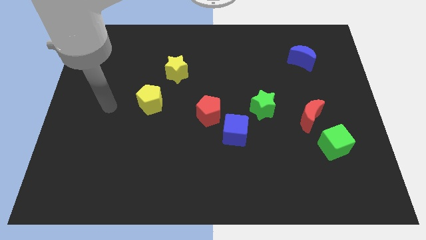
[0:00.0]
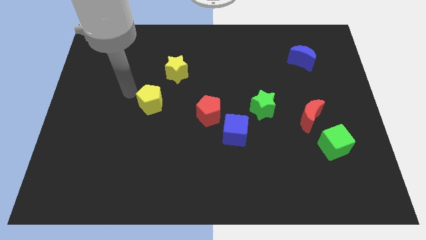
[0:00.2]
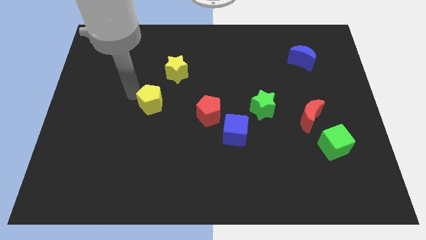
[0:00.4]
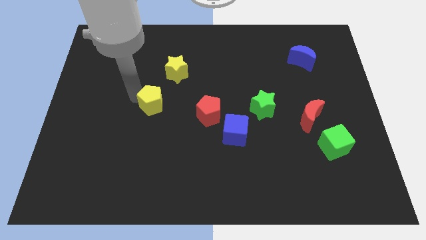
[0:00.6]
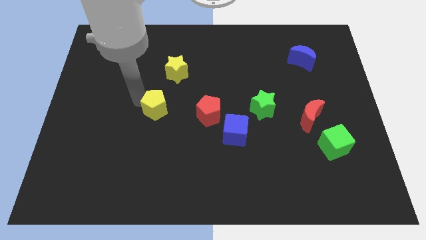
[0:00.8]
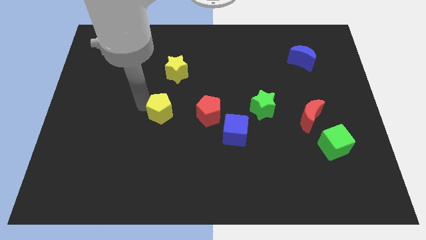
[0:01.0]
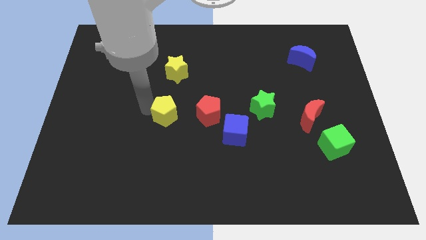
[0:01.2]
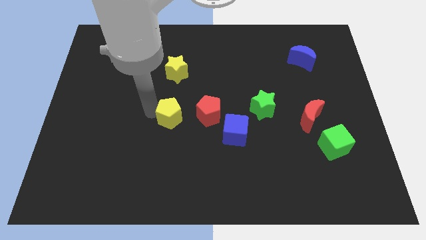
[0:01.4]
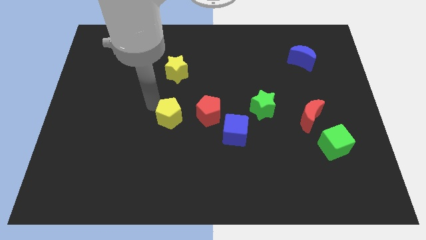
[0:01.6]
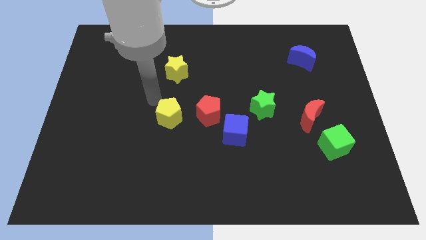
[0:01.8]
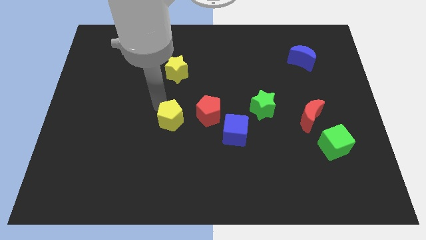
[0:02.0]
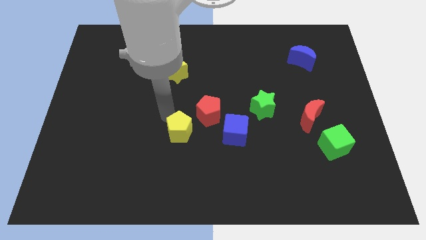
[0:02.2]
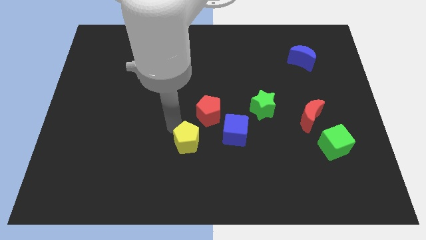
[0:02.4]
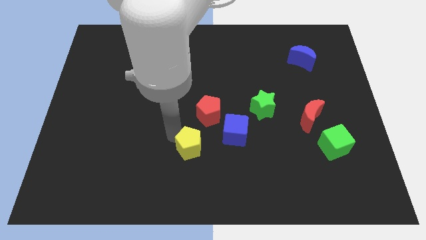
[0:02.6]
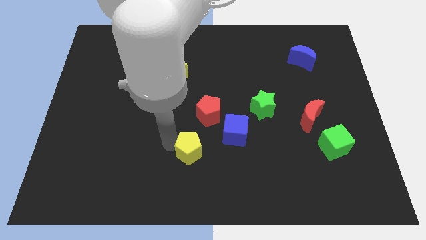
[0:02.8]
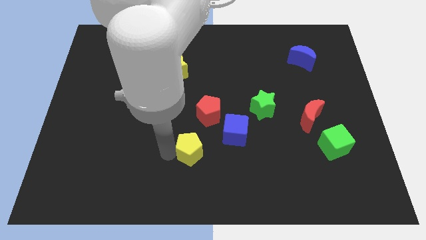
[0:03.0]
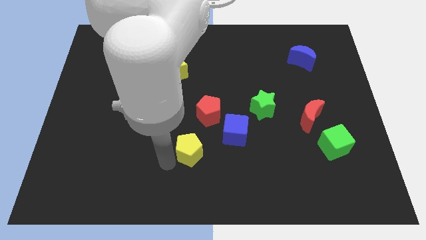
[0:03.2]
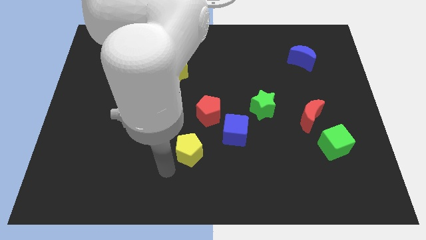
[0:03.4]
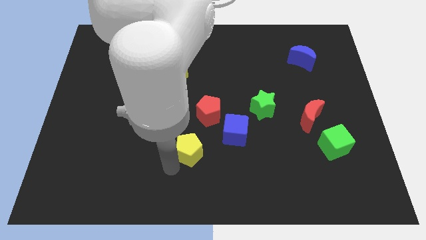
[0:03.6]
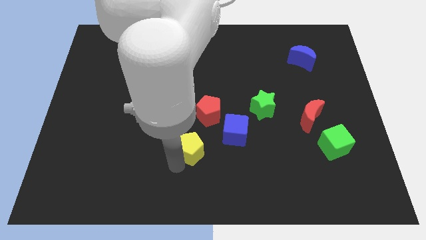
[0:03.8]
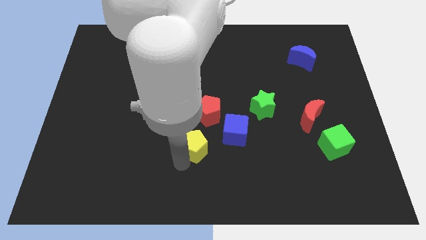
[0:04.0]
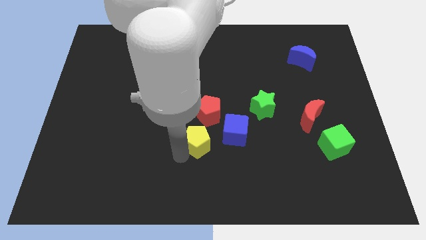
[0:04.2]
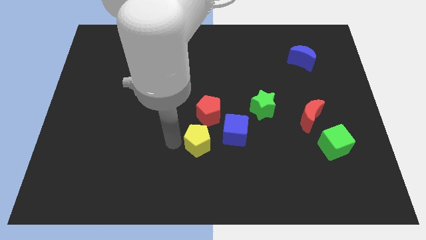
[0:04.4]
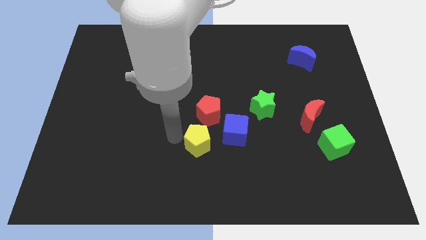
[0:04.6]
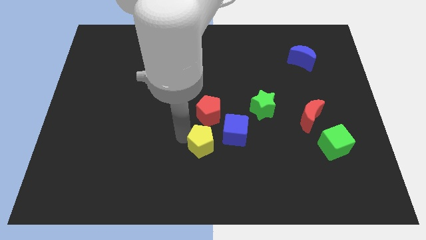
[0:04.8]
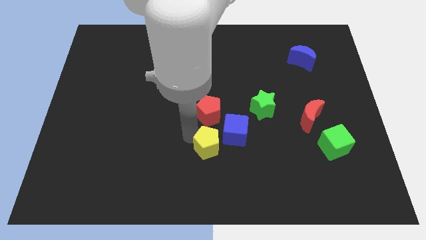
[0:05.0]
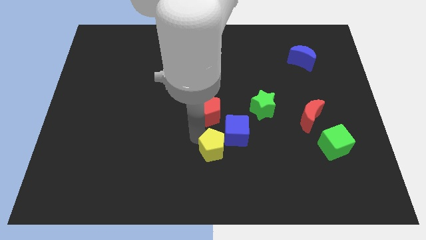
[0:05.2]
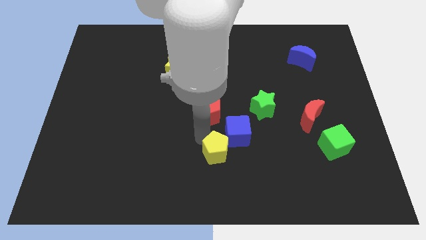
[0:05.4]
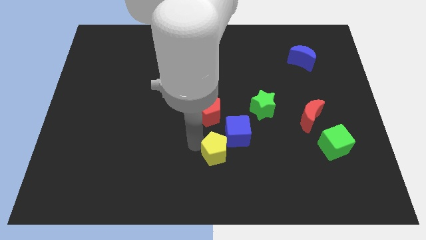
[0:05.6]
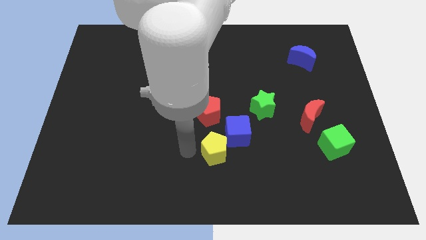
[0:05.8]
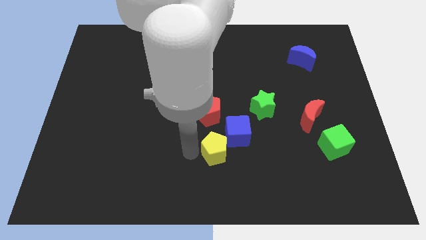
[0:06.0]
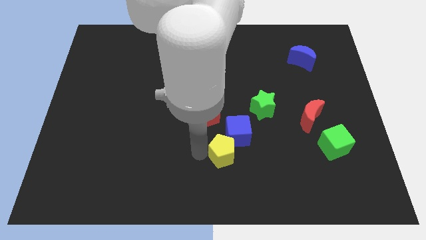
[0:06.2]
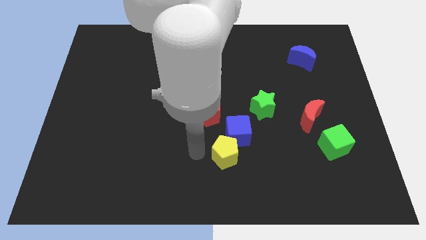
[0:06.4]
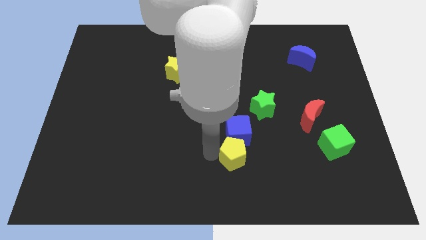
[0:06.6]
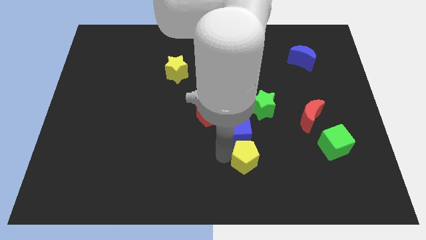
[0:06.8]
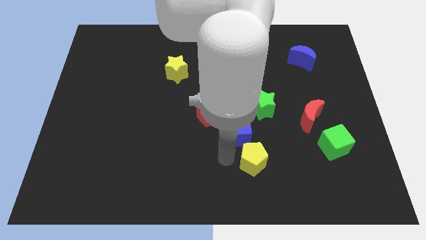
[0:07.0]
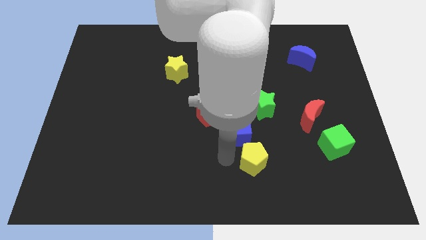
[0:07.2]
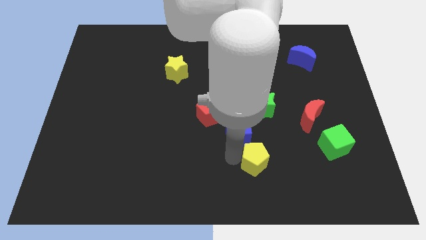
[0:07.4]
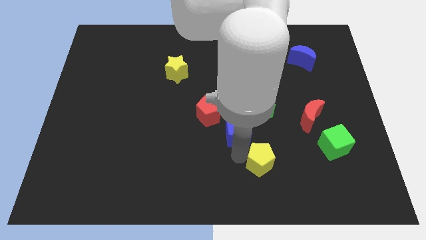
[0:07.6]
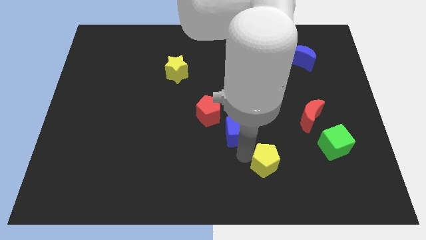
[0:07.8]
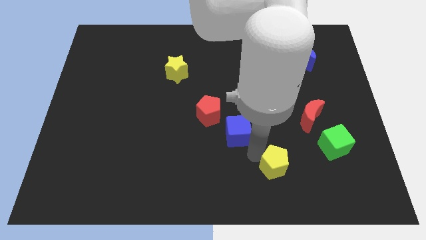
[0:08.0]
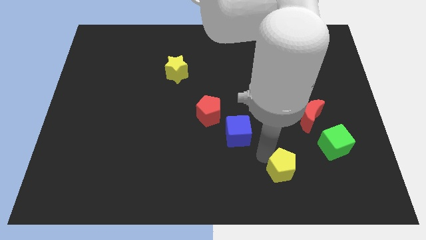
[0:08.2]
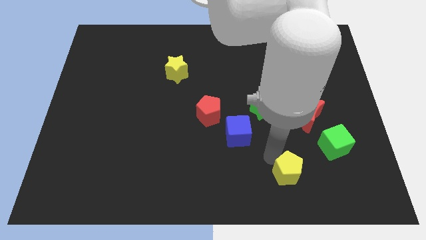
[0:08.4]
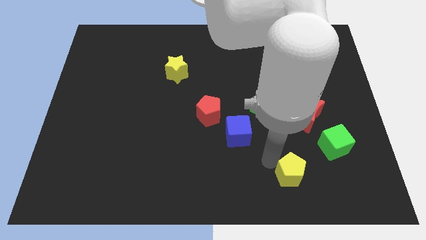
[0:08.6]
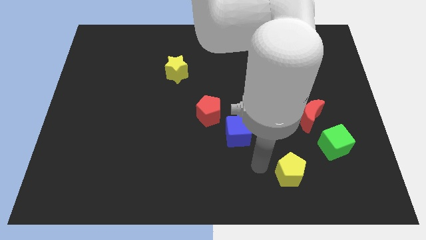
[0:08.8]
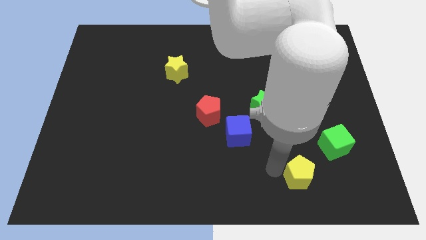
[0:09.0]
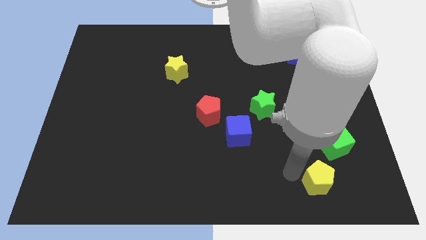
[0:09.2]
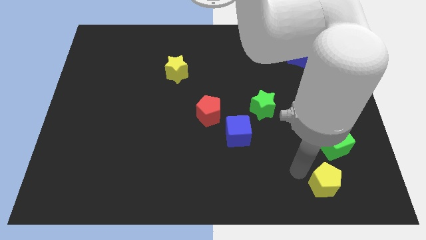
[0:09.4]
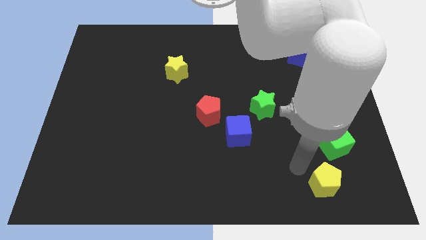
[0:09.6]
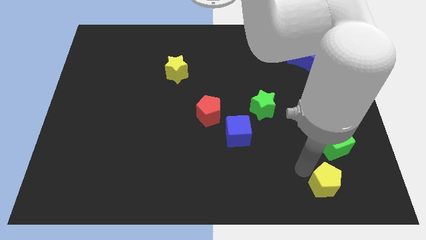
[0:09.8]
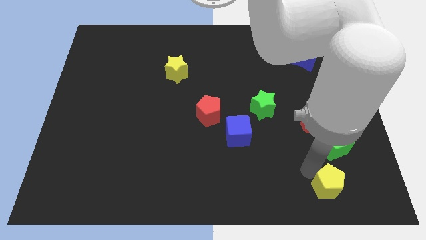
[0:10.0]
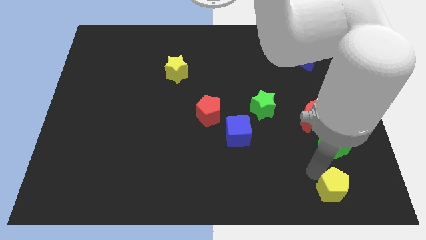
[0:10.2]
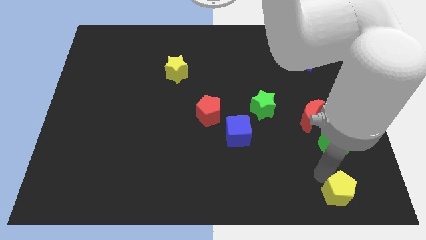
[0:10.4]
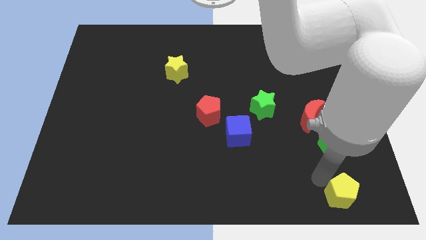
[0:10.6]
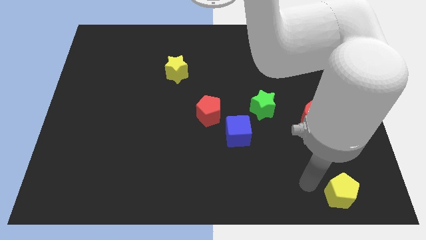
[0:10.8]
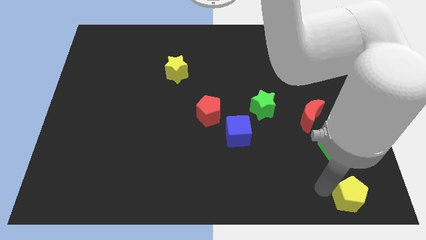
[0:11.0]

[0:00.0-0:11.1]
slide the yellow pentagon to the bottom right

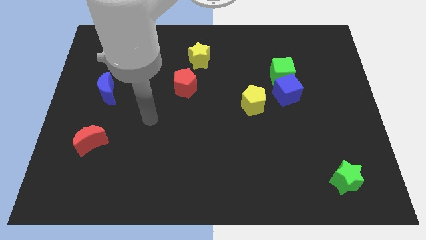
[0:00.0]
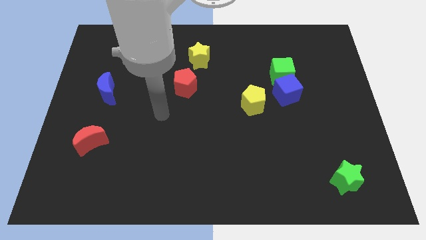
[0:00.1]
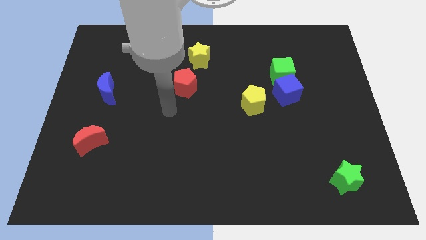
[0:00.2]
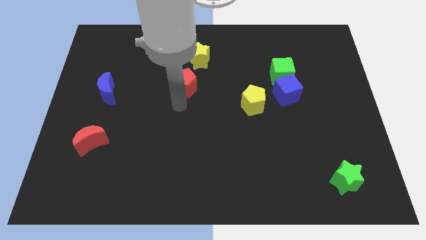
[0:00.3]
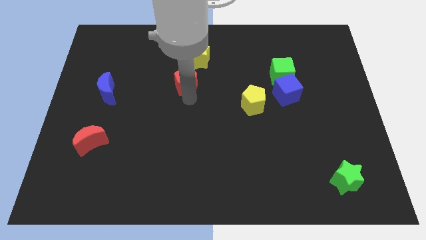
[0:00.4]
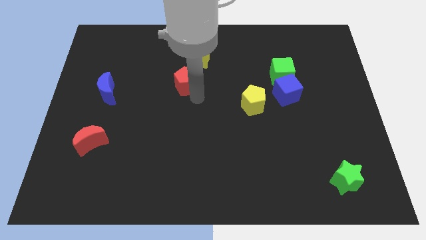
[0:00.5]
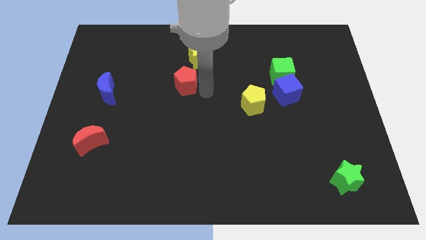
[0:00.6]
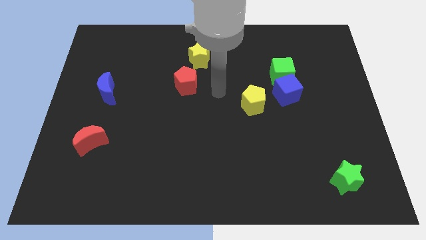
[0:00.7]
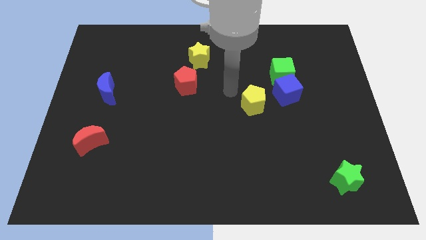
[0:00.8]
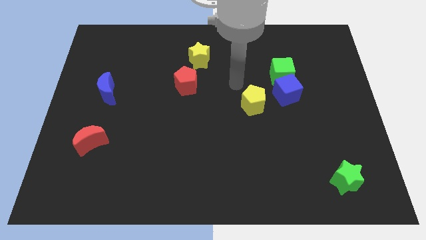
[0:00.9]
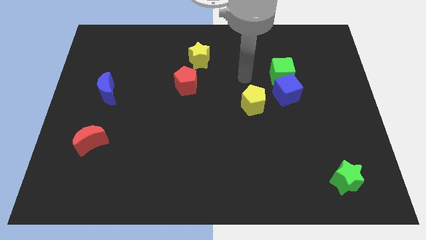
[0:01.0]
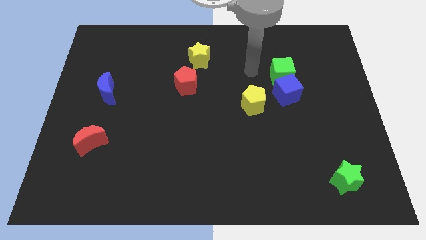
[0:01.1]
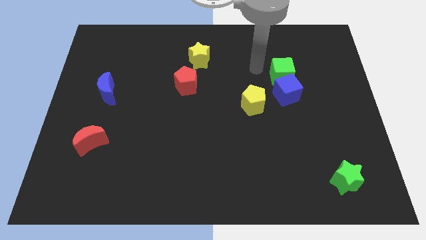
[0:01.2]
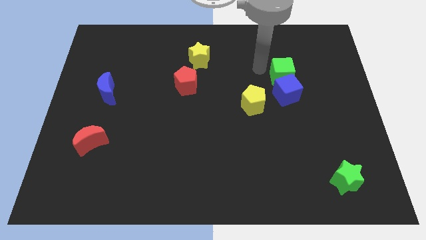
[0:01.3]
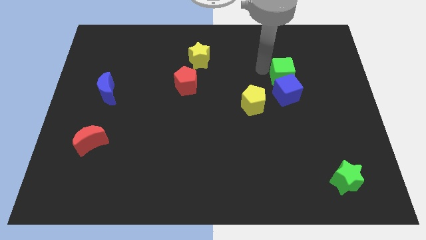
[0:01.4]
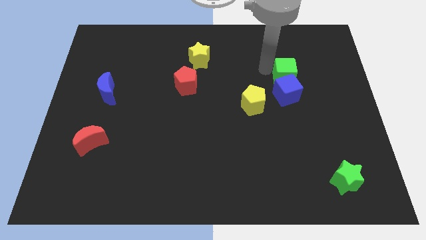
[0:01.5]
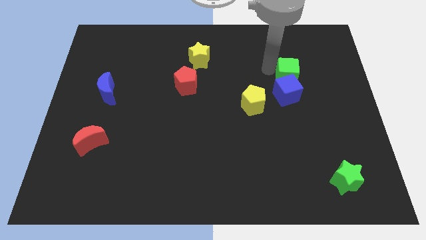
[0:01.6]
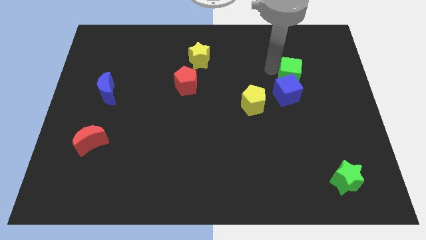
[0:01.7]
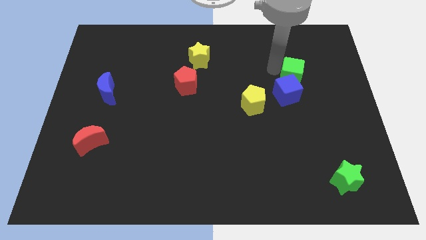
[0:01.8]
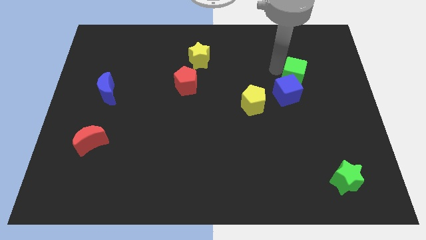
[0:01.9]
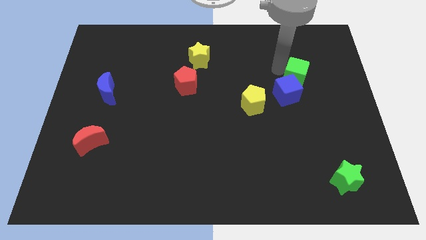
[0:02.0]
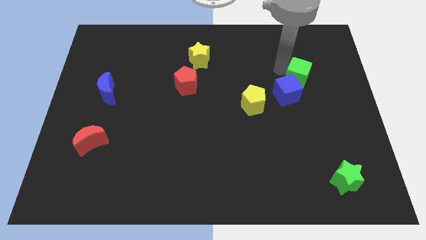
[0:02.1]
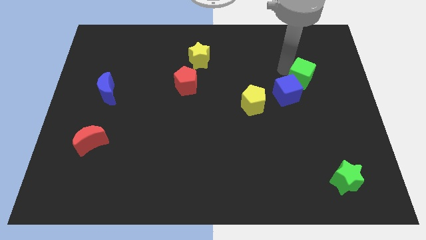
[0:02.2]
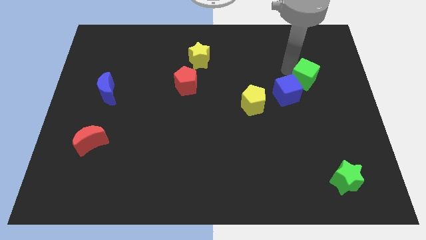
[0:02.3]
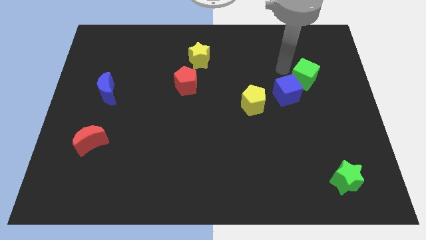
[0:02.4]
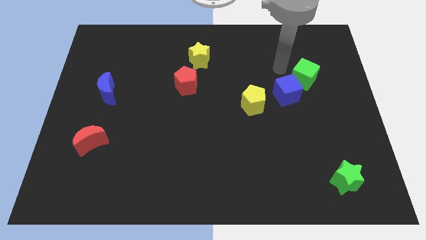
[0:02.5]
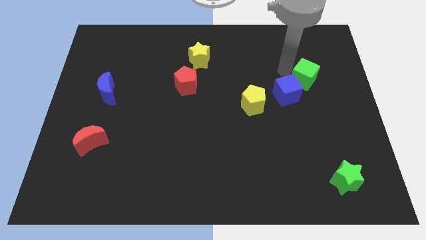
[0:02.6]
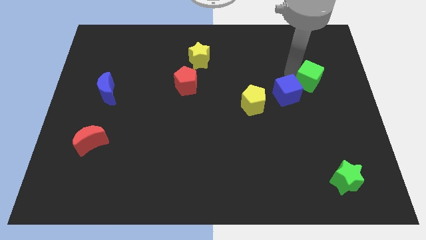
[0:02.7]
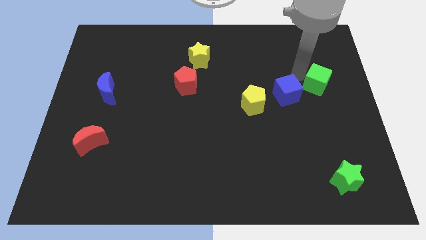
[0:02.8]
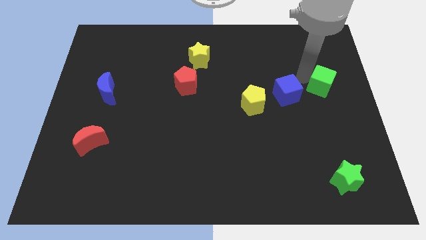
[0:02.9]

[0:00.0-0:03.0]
push the green cube to the right side
